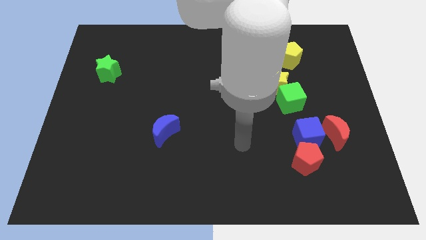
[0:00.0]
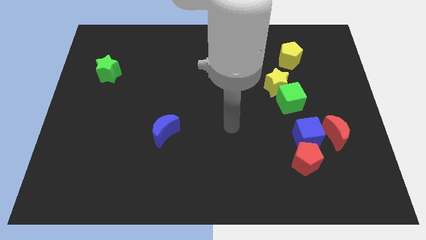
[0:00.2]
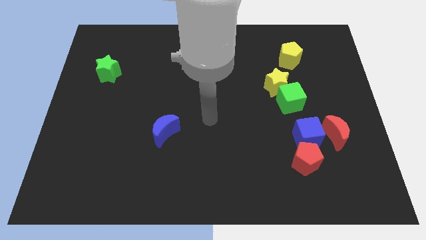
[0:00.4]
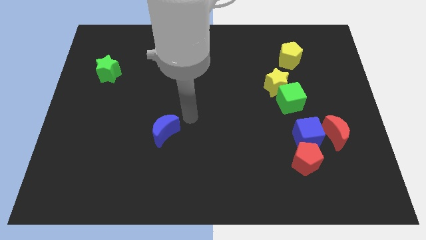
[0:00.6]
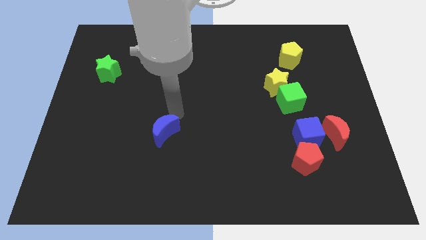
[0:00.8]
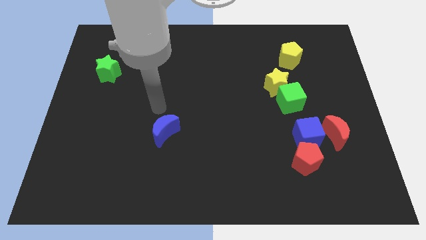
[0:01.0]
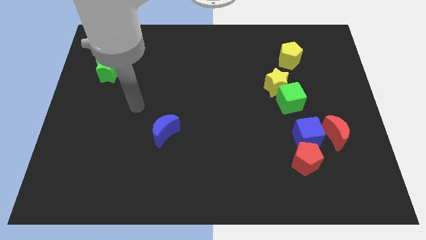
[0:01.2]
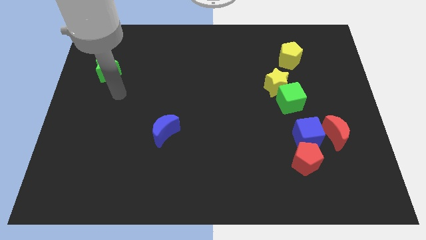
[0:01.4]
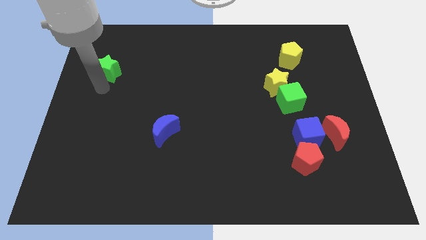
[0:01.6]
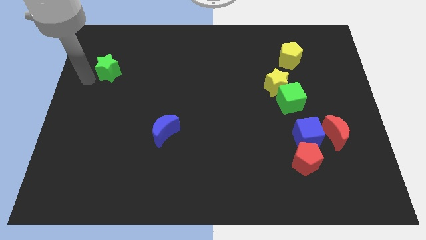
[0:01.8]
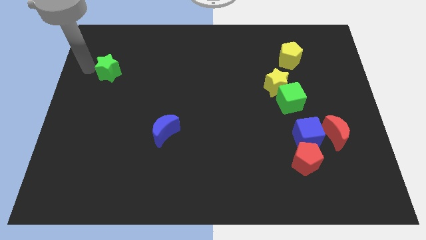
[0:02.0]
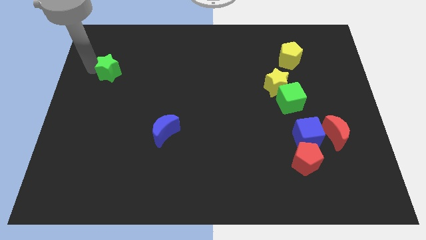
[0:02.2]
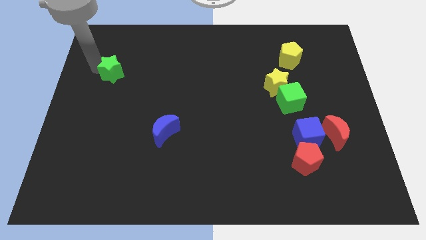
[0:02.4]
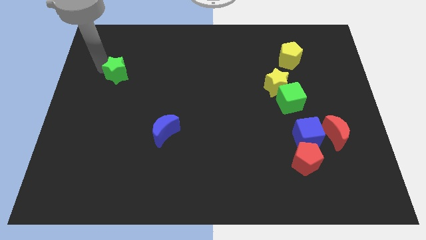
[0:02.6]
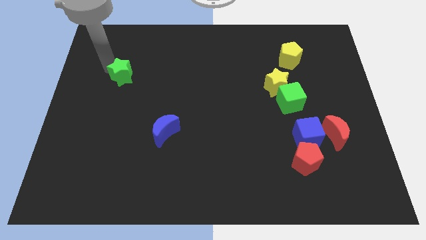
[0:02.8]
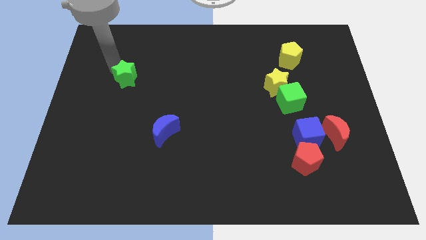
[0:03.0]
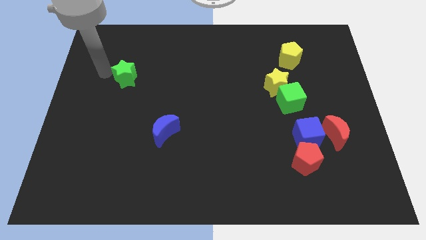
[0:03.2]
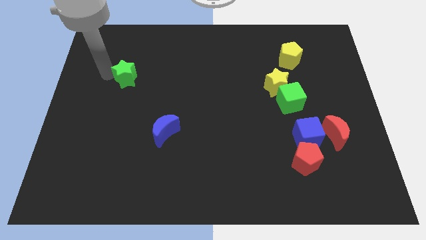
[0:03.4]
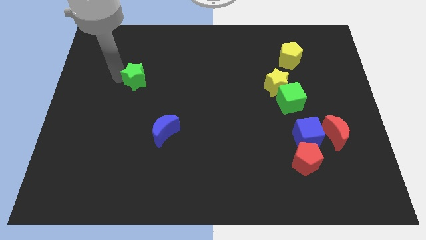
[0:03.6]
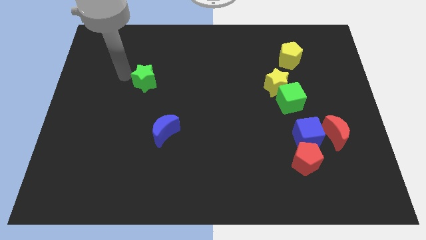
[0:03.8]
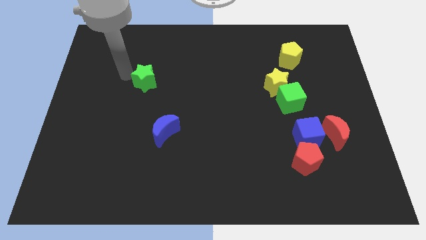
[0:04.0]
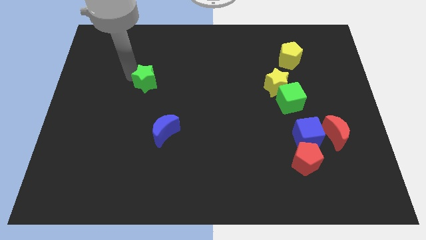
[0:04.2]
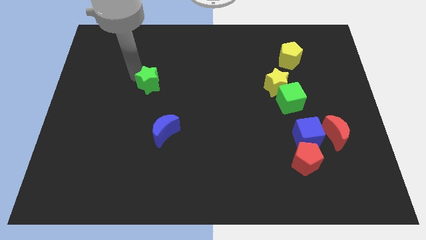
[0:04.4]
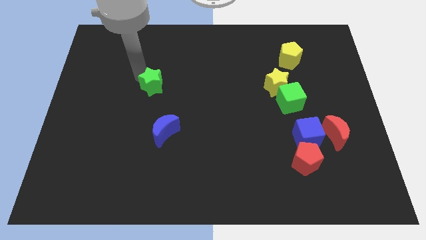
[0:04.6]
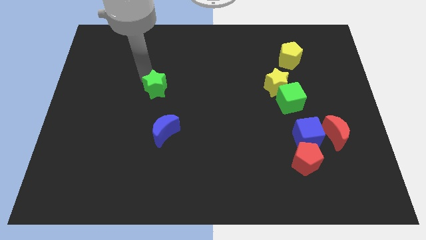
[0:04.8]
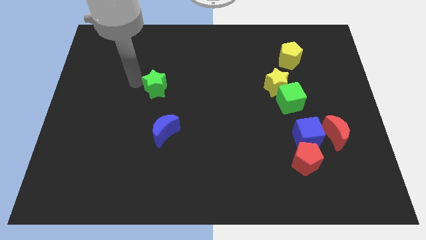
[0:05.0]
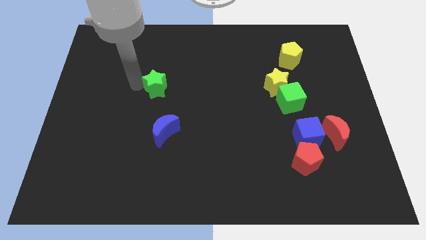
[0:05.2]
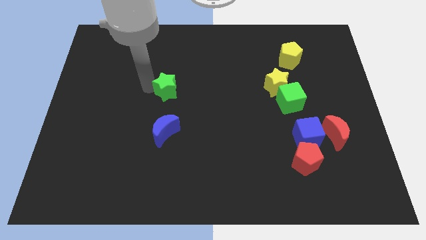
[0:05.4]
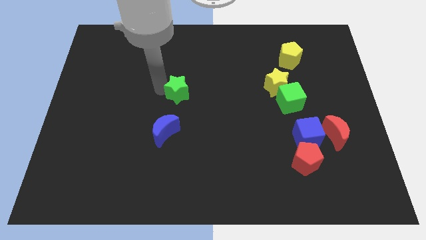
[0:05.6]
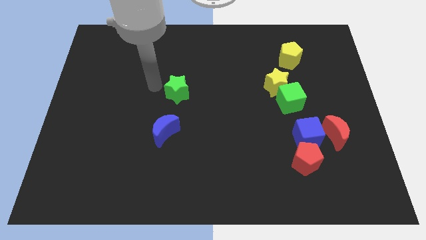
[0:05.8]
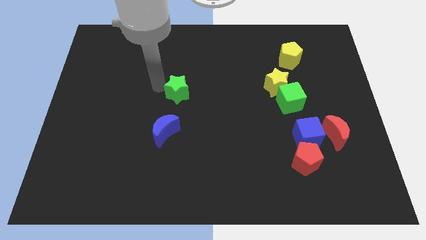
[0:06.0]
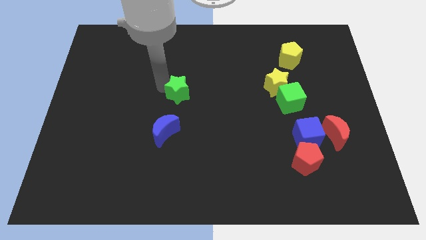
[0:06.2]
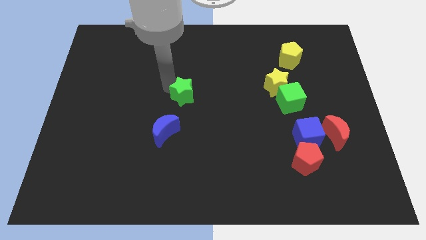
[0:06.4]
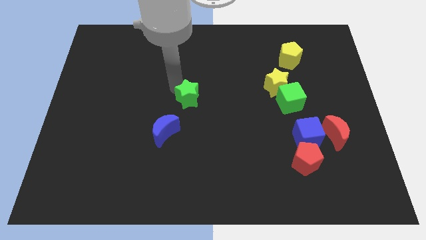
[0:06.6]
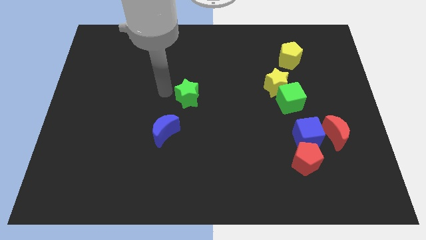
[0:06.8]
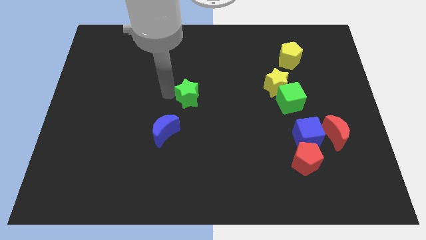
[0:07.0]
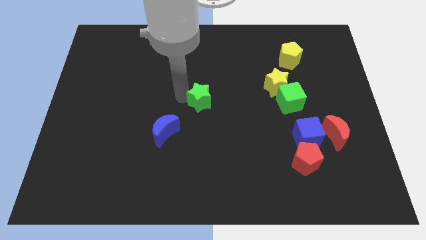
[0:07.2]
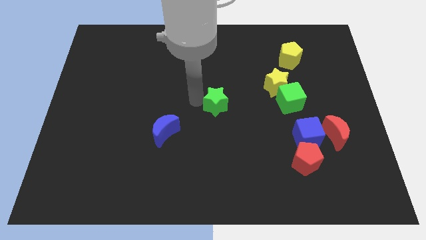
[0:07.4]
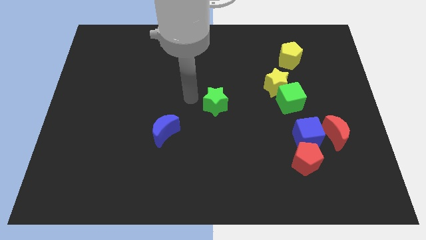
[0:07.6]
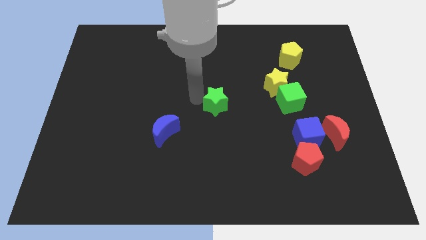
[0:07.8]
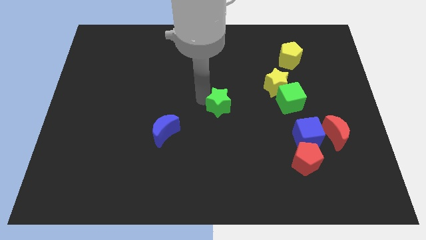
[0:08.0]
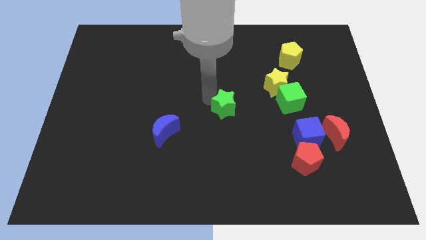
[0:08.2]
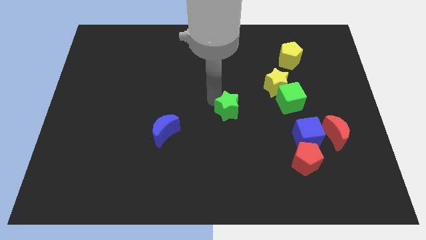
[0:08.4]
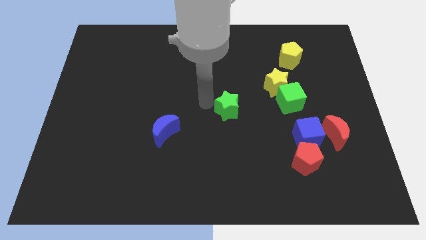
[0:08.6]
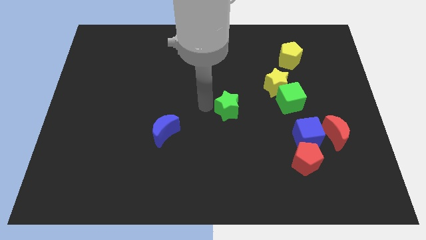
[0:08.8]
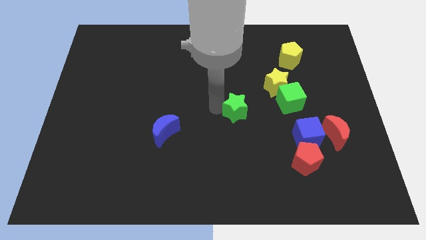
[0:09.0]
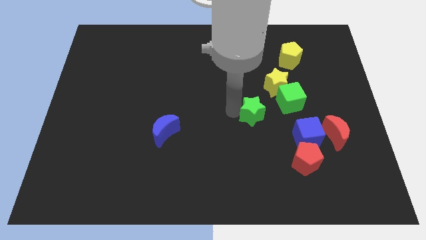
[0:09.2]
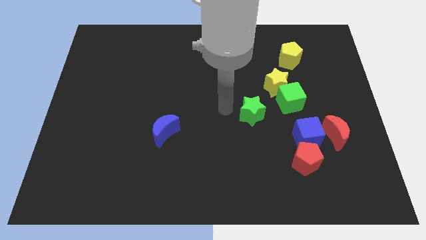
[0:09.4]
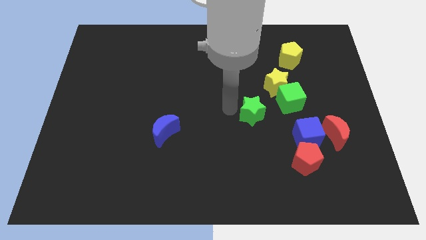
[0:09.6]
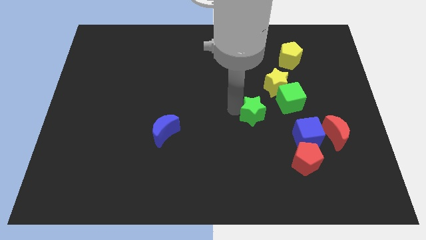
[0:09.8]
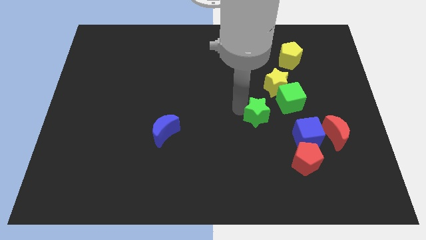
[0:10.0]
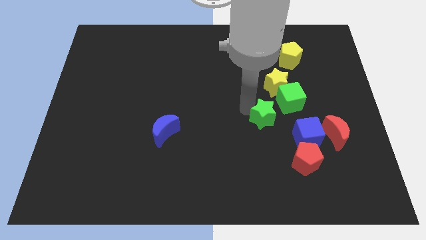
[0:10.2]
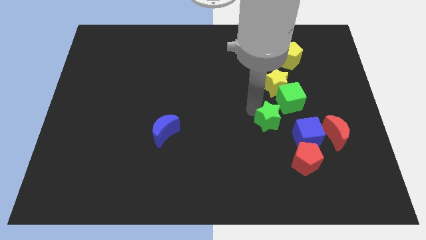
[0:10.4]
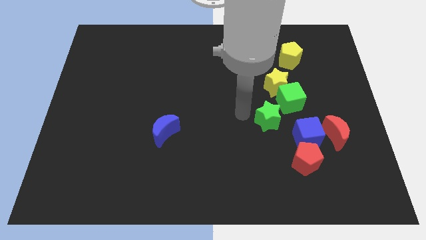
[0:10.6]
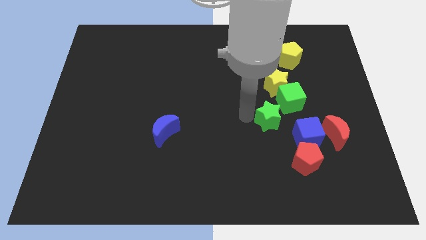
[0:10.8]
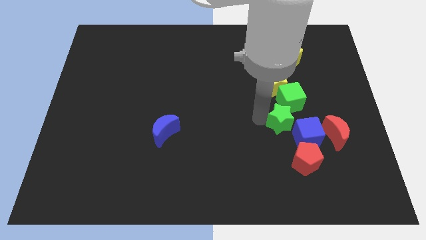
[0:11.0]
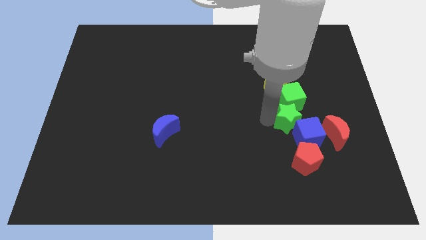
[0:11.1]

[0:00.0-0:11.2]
put the green star close to the blue cube
